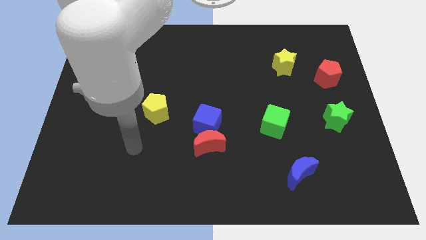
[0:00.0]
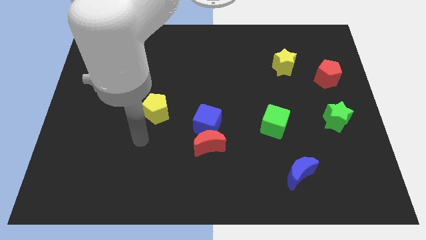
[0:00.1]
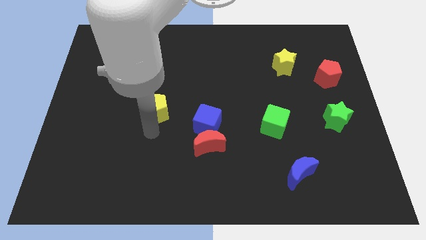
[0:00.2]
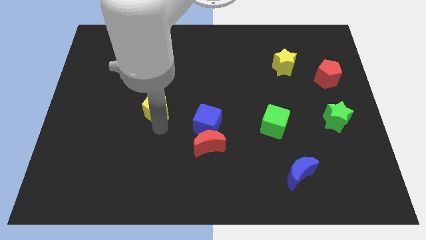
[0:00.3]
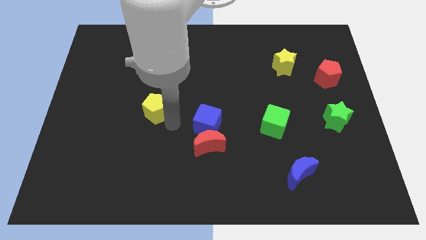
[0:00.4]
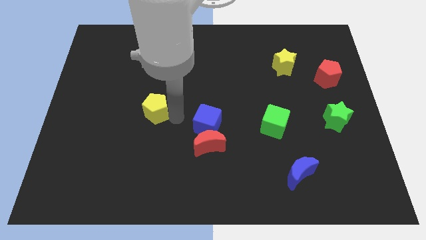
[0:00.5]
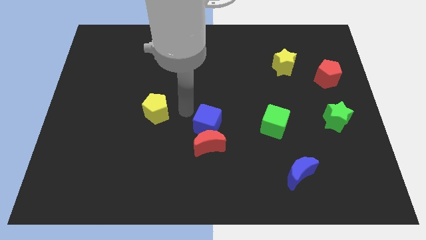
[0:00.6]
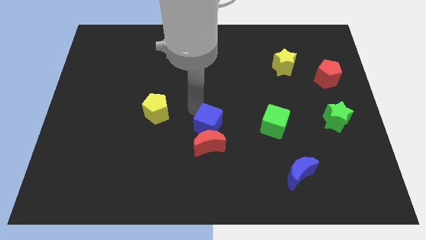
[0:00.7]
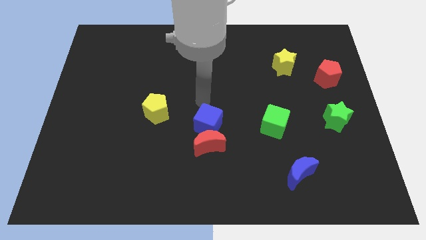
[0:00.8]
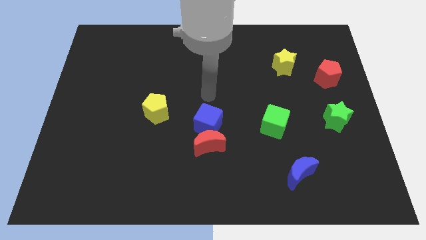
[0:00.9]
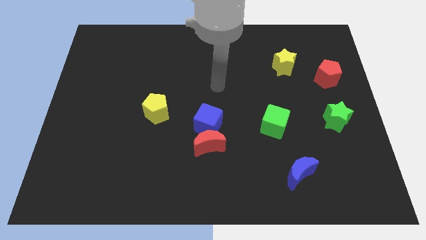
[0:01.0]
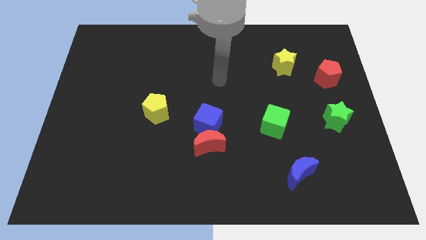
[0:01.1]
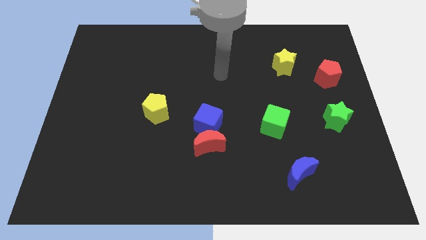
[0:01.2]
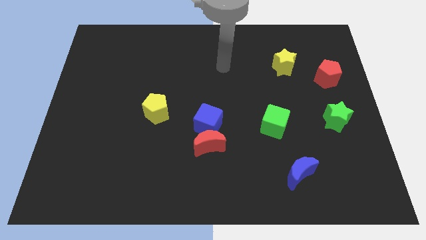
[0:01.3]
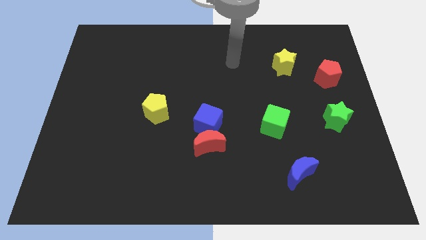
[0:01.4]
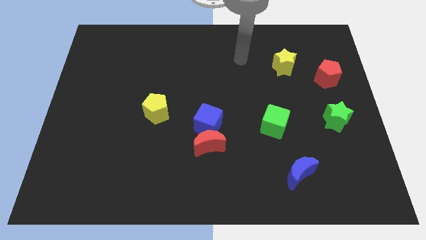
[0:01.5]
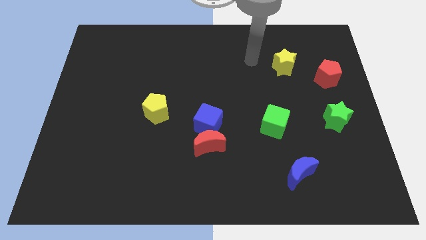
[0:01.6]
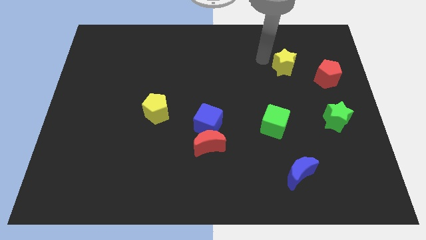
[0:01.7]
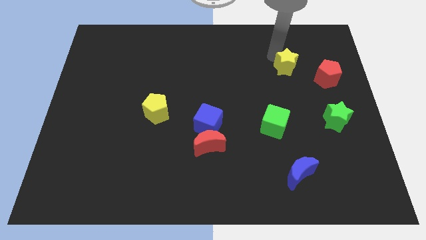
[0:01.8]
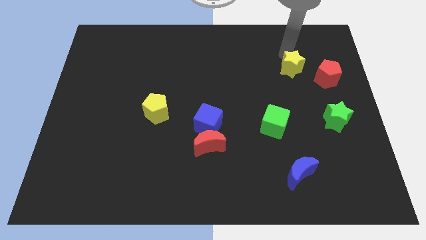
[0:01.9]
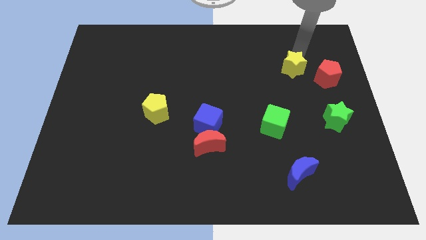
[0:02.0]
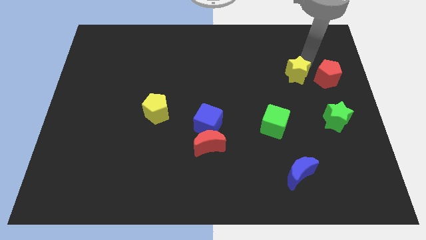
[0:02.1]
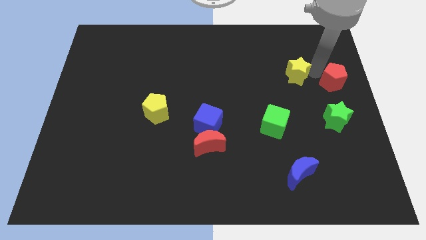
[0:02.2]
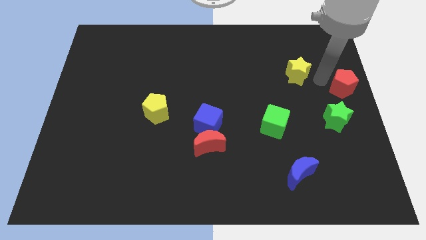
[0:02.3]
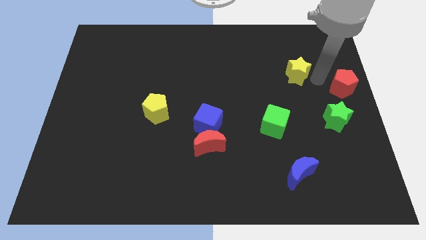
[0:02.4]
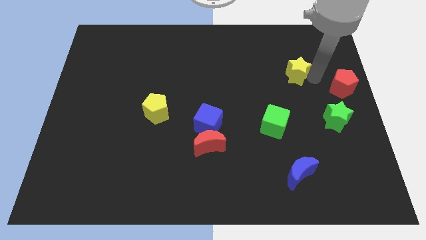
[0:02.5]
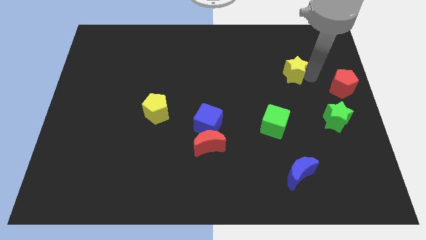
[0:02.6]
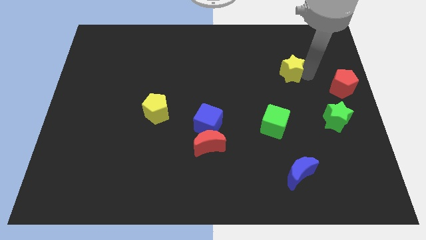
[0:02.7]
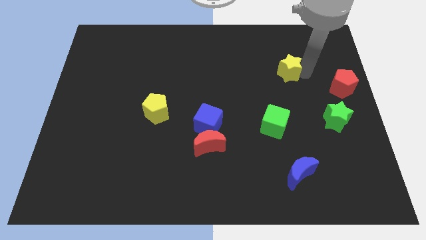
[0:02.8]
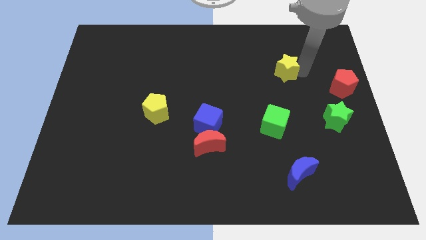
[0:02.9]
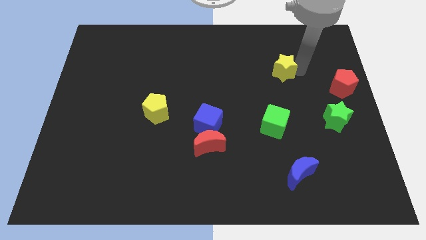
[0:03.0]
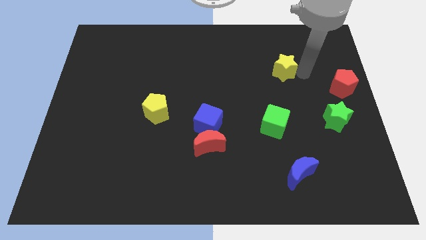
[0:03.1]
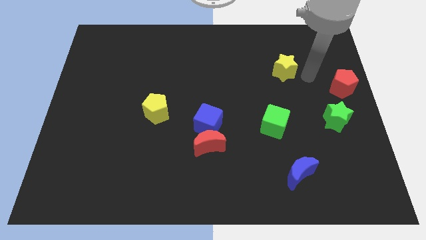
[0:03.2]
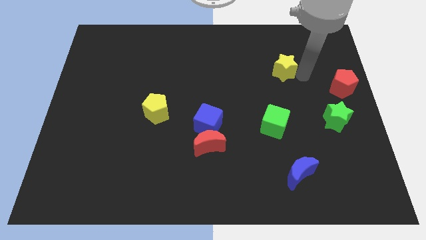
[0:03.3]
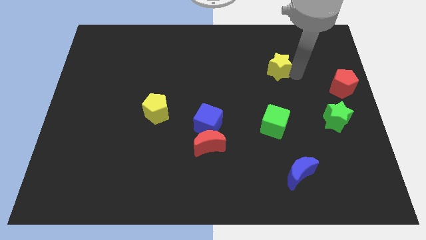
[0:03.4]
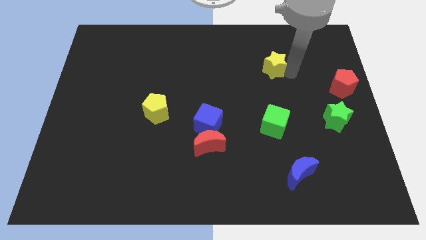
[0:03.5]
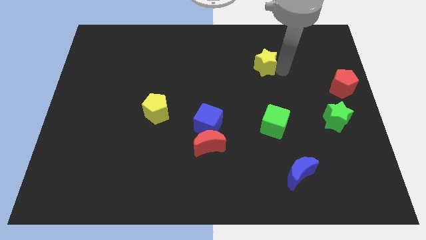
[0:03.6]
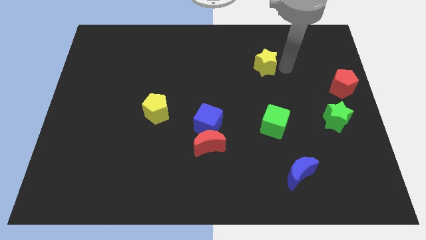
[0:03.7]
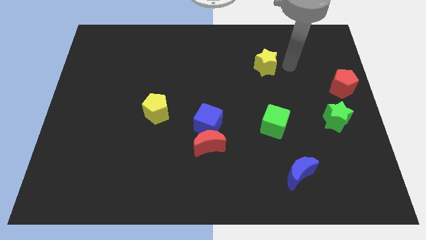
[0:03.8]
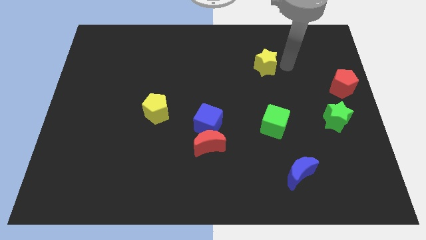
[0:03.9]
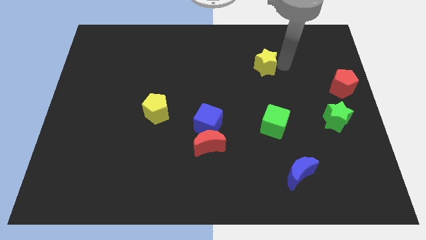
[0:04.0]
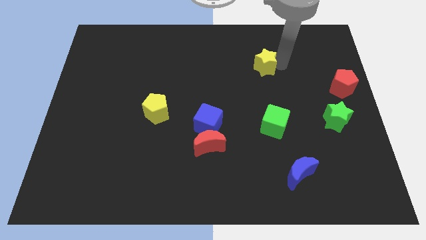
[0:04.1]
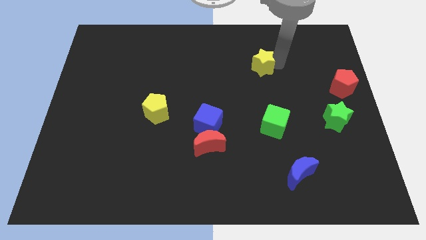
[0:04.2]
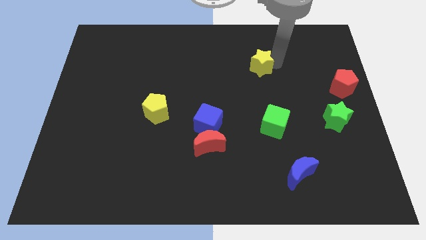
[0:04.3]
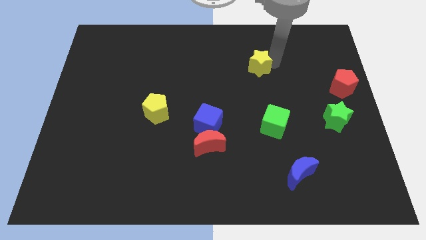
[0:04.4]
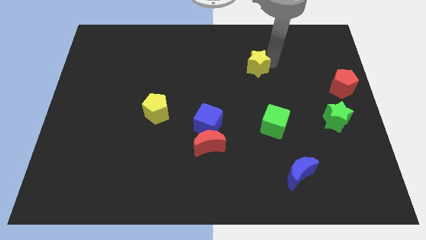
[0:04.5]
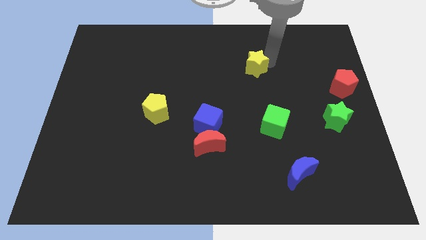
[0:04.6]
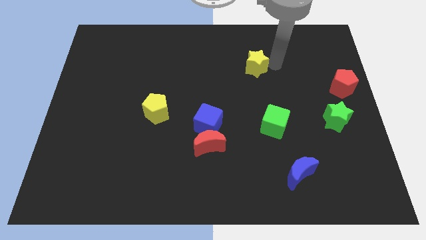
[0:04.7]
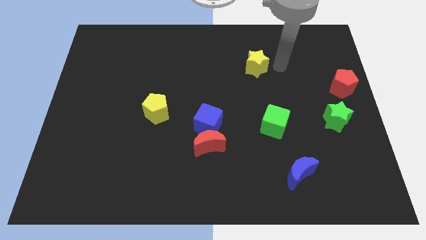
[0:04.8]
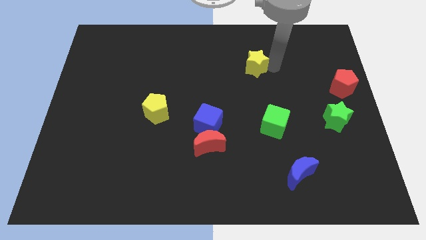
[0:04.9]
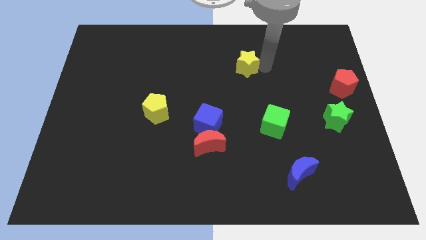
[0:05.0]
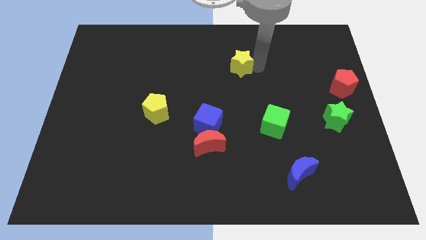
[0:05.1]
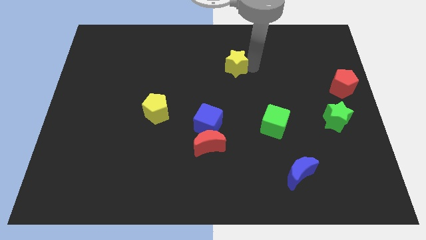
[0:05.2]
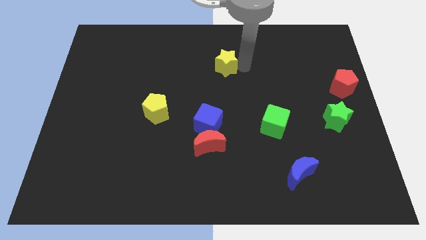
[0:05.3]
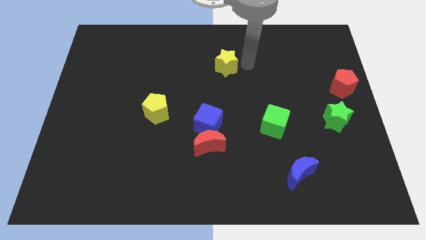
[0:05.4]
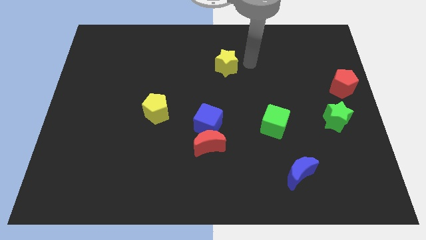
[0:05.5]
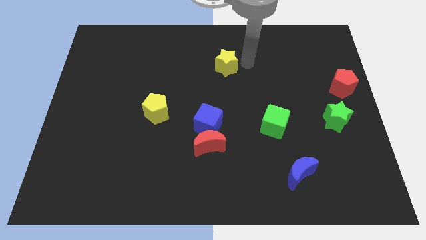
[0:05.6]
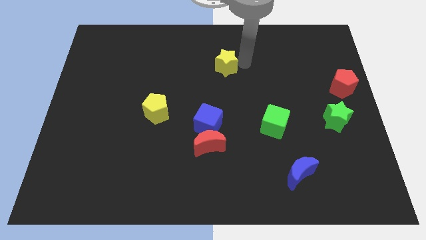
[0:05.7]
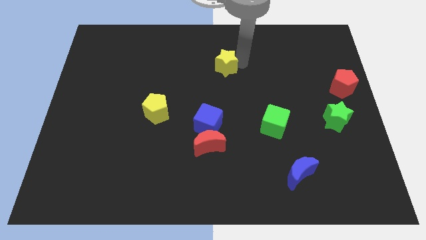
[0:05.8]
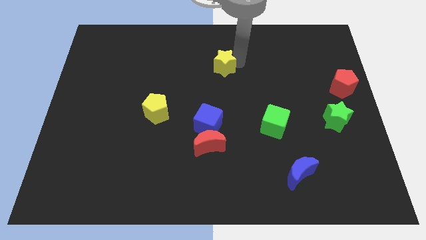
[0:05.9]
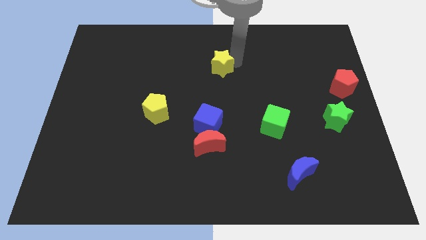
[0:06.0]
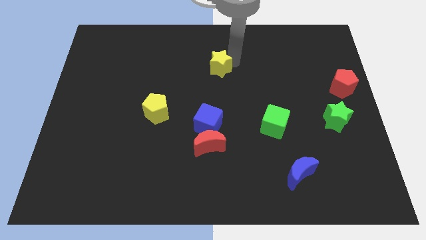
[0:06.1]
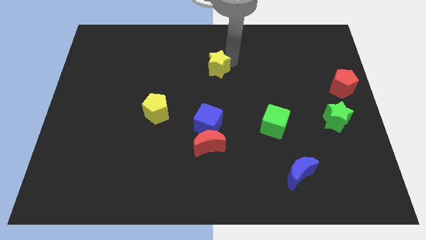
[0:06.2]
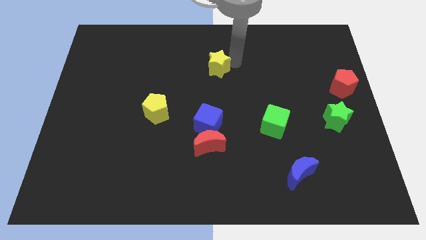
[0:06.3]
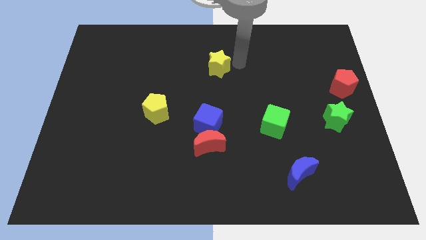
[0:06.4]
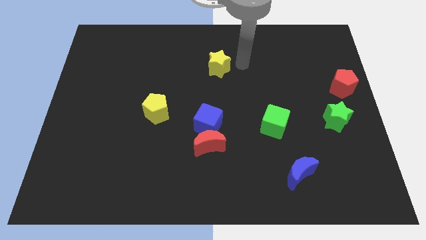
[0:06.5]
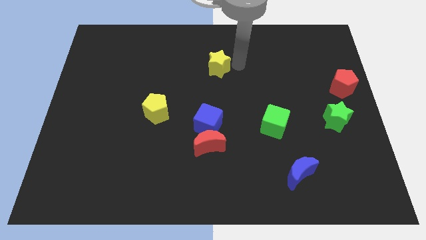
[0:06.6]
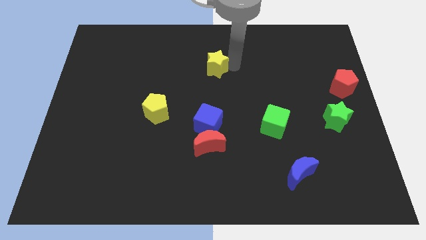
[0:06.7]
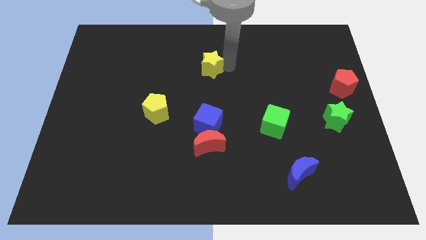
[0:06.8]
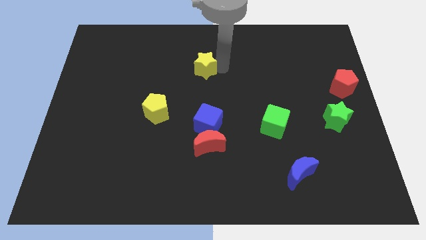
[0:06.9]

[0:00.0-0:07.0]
move the yellow star to the left

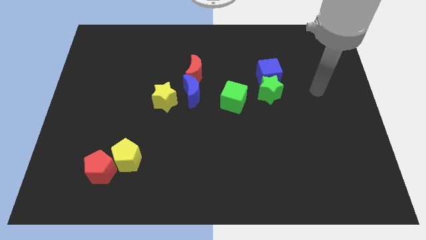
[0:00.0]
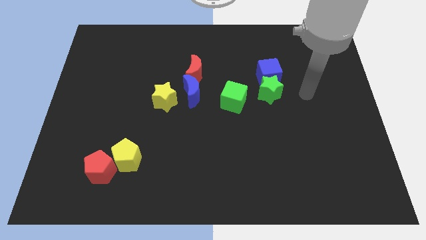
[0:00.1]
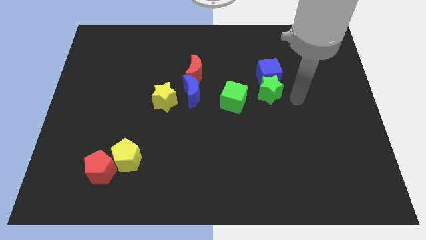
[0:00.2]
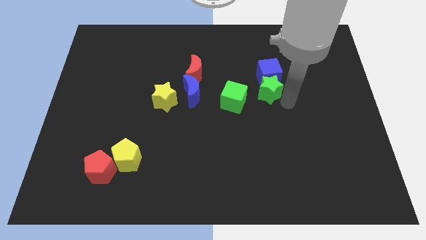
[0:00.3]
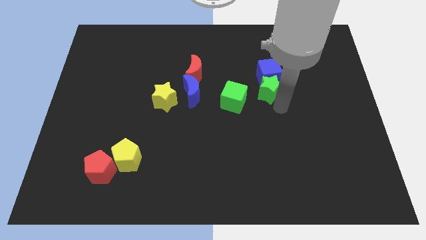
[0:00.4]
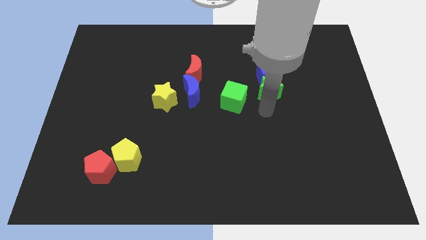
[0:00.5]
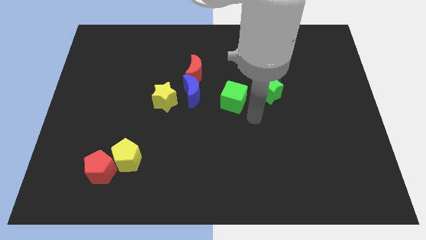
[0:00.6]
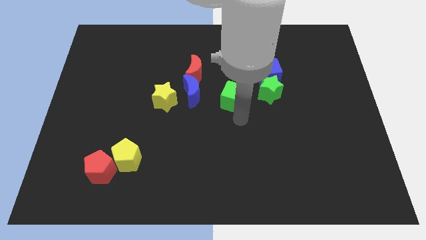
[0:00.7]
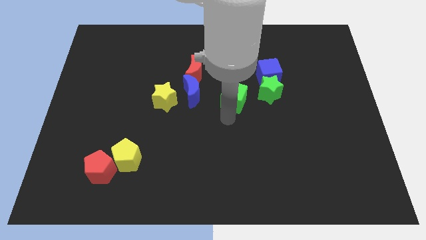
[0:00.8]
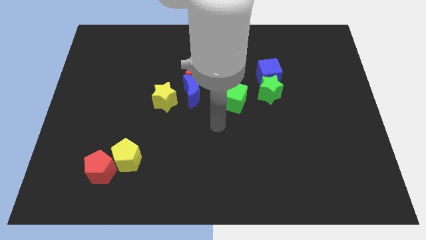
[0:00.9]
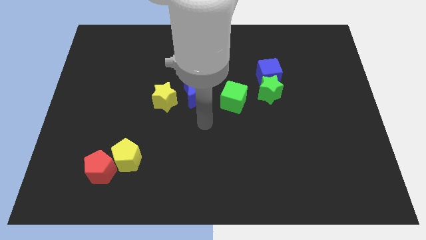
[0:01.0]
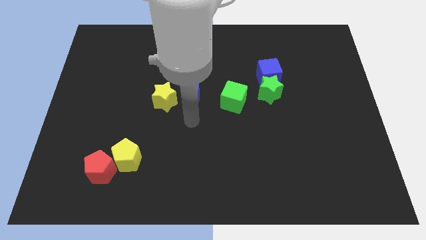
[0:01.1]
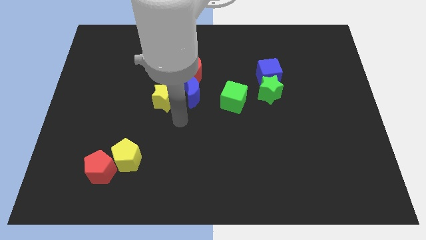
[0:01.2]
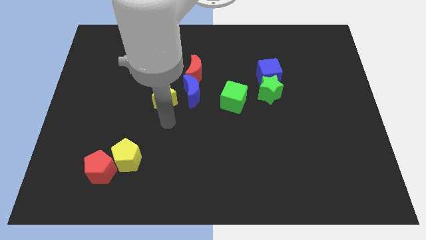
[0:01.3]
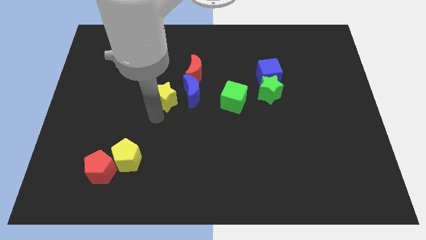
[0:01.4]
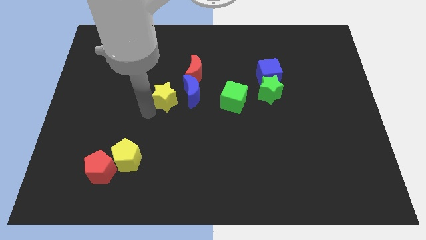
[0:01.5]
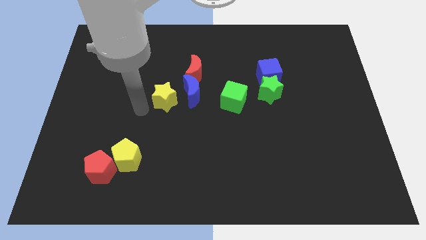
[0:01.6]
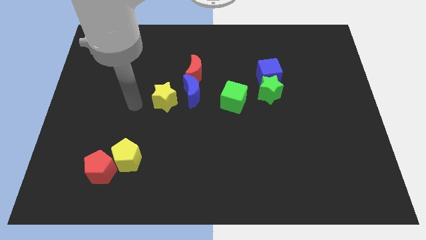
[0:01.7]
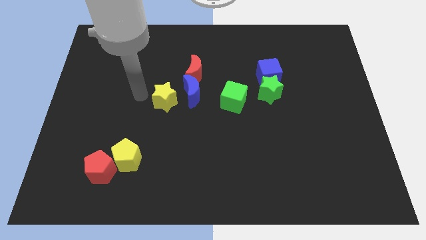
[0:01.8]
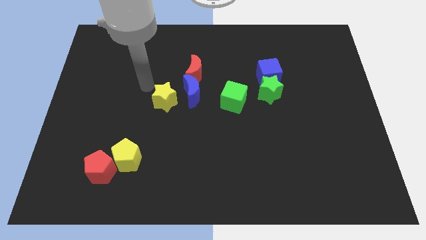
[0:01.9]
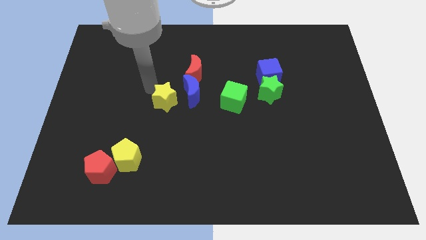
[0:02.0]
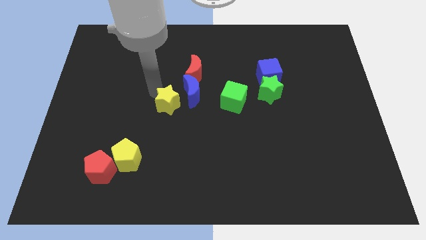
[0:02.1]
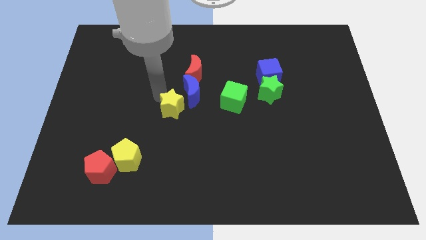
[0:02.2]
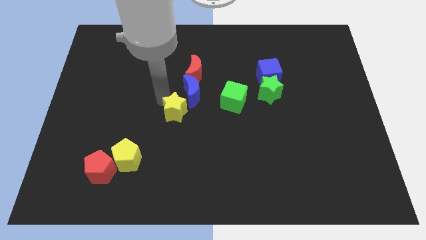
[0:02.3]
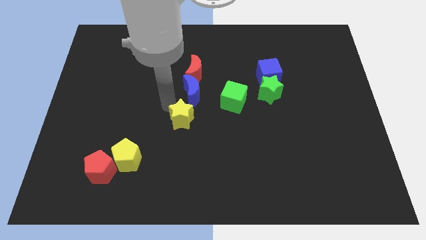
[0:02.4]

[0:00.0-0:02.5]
push the yellow star diagonally down and to the right somewhat
